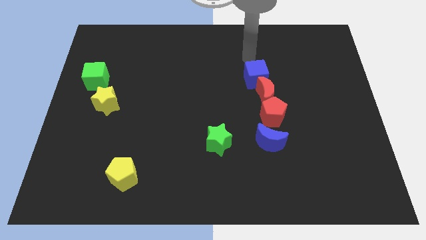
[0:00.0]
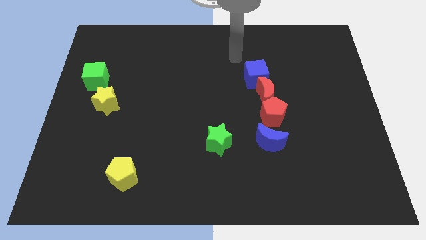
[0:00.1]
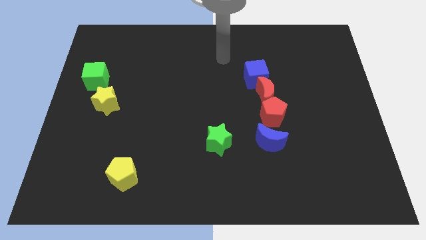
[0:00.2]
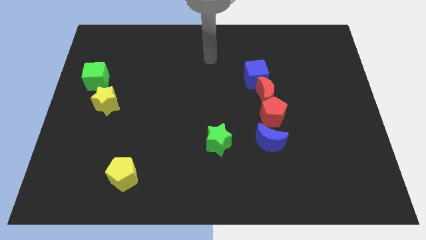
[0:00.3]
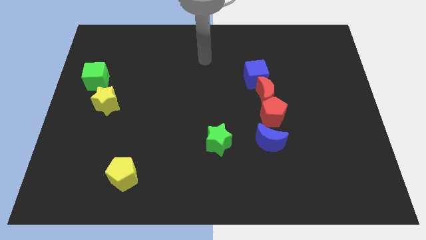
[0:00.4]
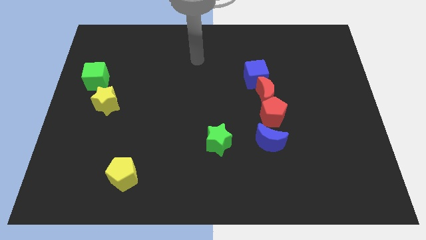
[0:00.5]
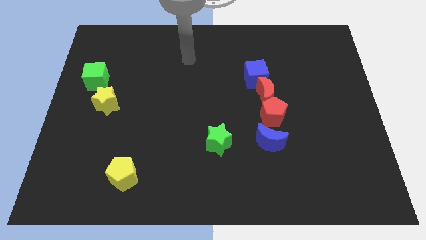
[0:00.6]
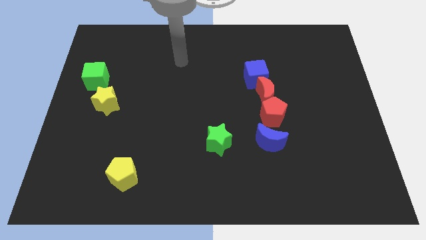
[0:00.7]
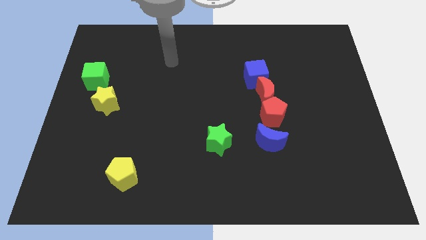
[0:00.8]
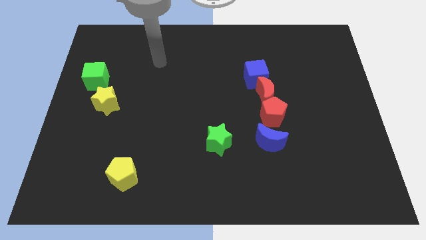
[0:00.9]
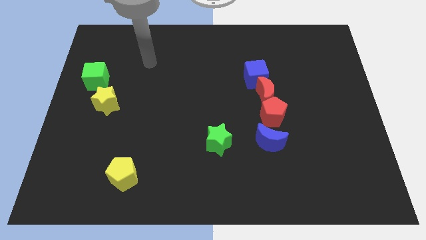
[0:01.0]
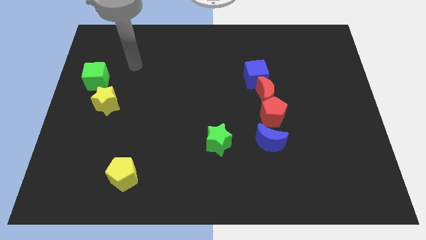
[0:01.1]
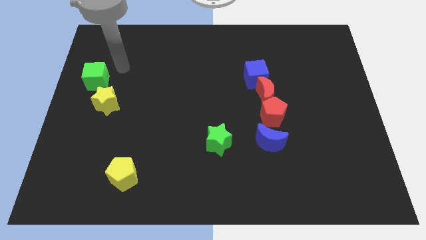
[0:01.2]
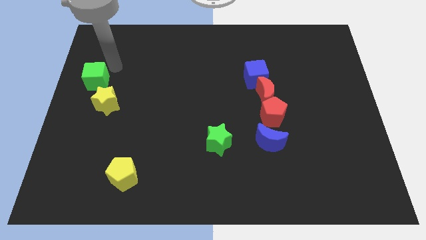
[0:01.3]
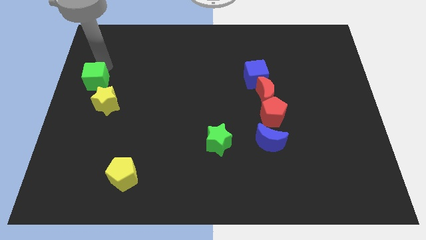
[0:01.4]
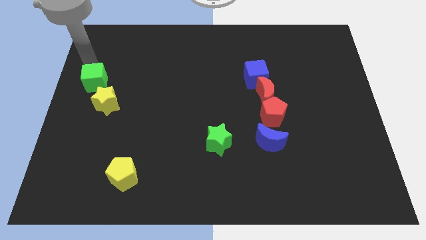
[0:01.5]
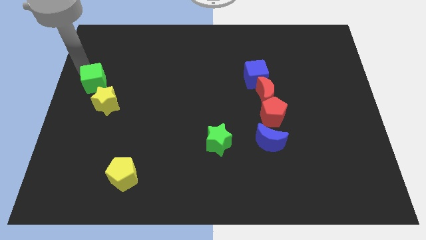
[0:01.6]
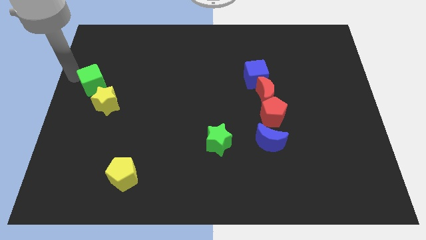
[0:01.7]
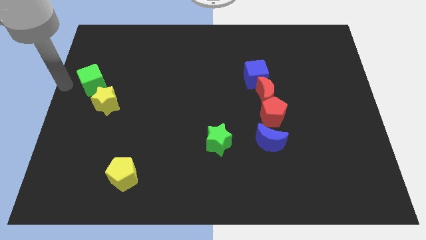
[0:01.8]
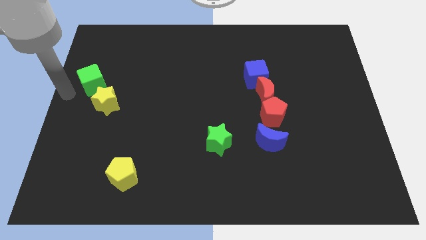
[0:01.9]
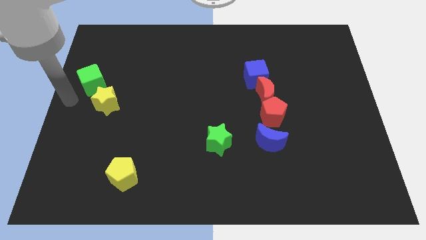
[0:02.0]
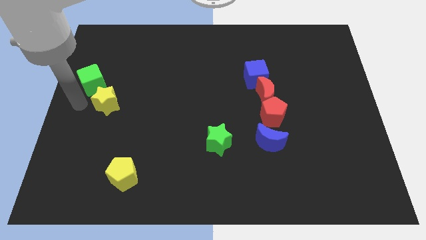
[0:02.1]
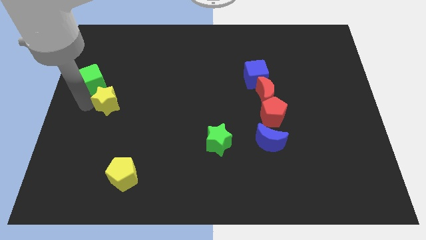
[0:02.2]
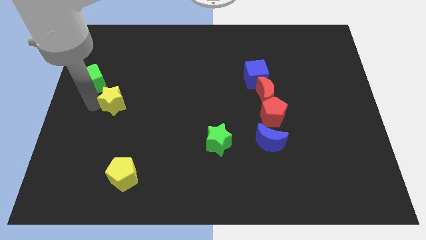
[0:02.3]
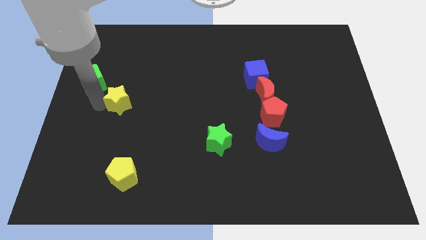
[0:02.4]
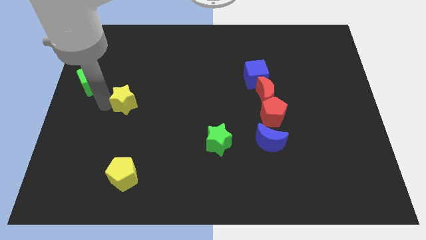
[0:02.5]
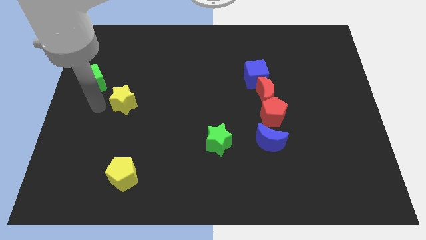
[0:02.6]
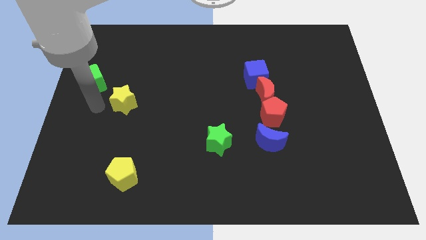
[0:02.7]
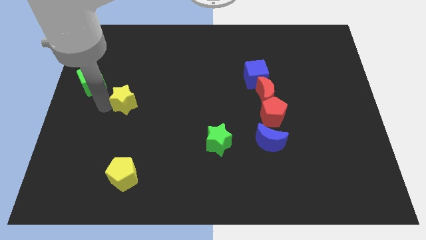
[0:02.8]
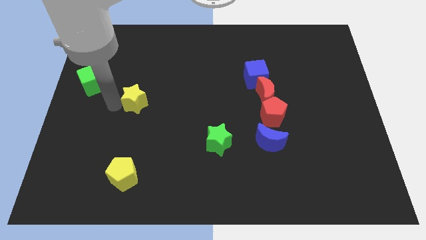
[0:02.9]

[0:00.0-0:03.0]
slightly slide the yellow star to the right

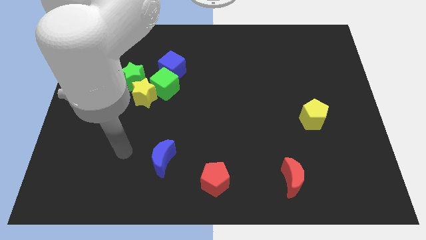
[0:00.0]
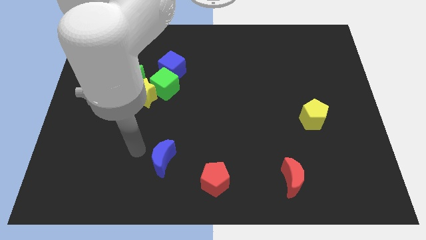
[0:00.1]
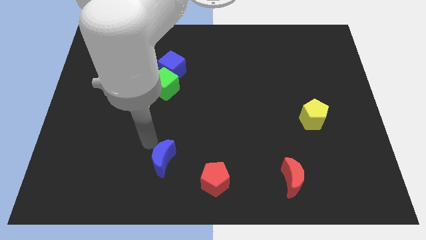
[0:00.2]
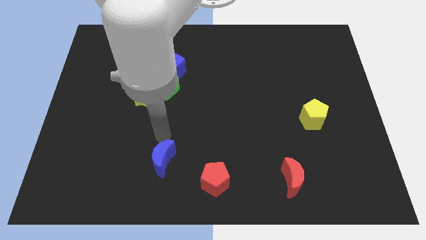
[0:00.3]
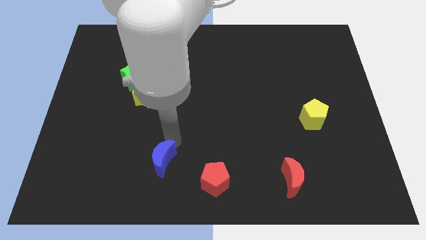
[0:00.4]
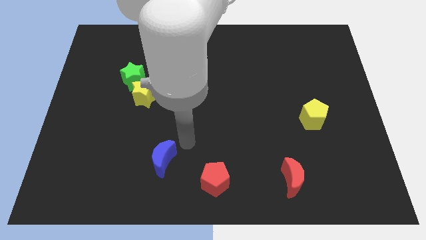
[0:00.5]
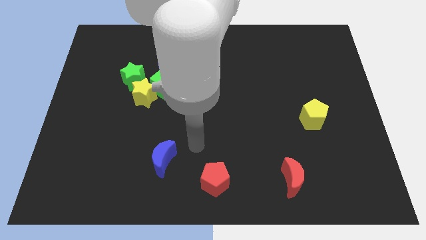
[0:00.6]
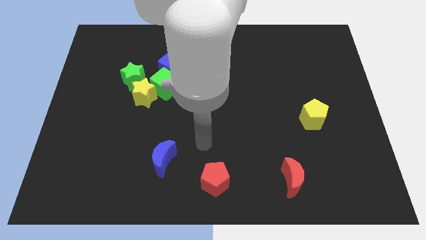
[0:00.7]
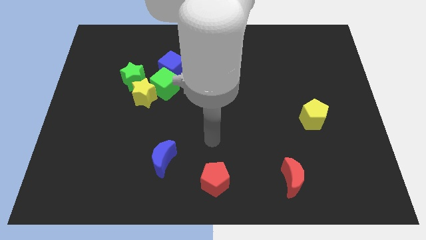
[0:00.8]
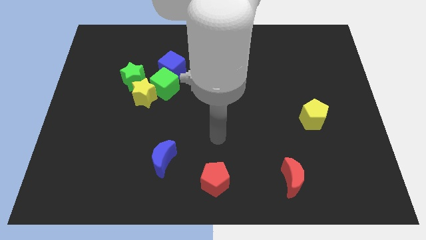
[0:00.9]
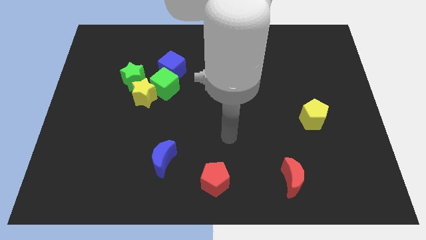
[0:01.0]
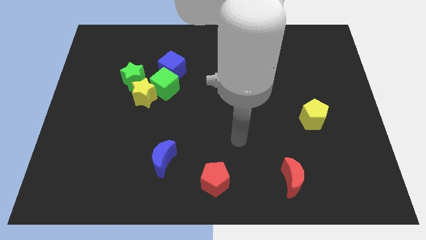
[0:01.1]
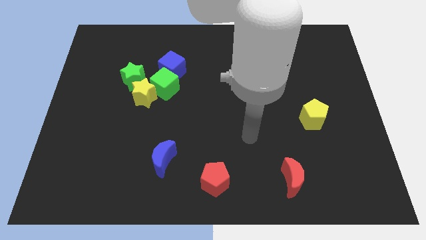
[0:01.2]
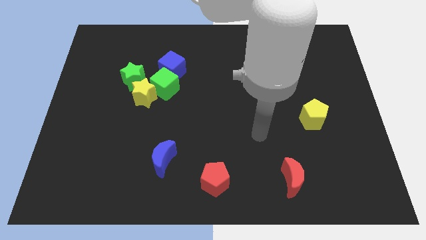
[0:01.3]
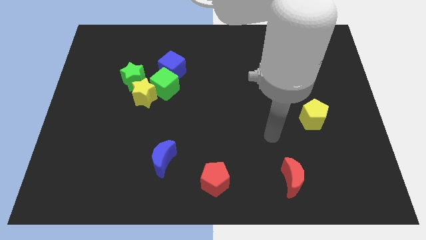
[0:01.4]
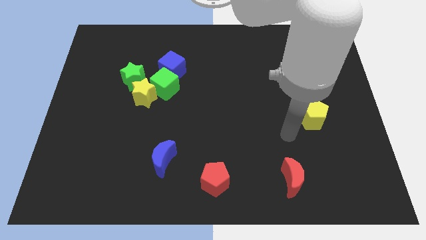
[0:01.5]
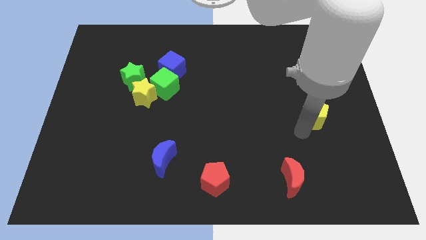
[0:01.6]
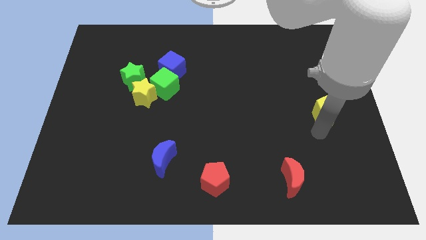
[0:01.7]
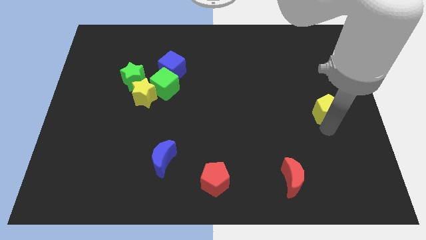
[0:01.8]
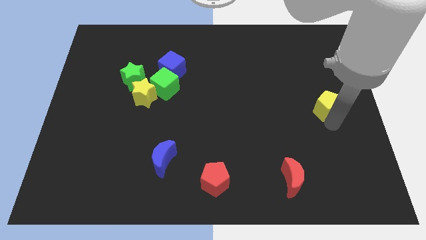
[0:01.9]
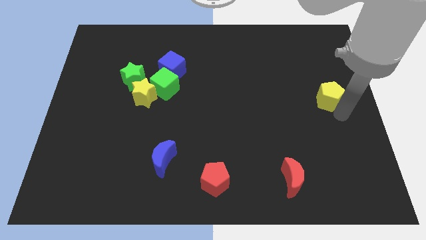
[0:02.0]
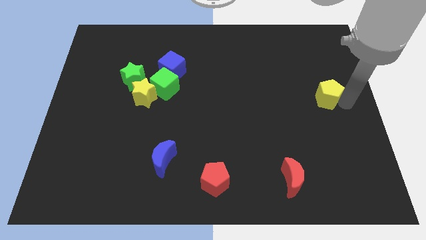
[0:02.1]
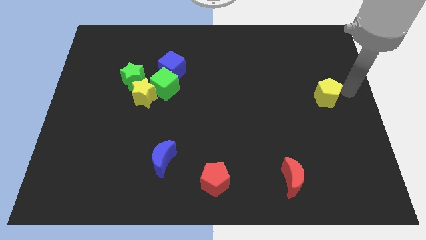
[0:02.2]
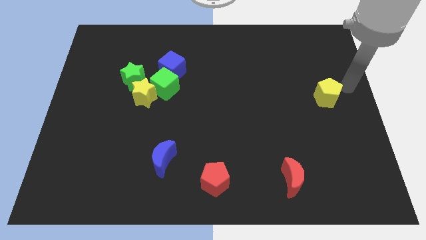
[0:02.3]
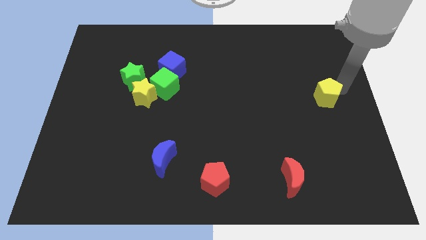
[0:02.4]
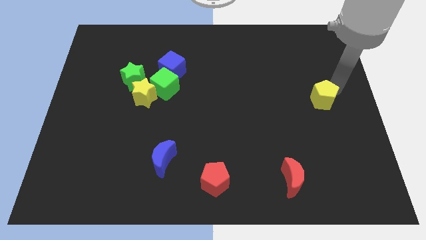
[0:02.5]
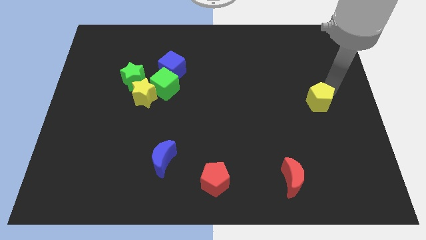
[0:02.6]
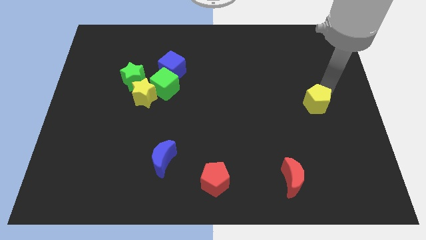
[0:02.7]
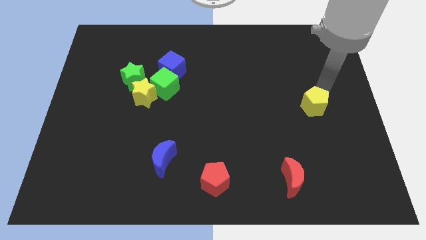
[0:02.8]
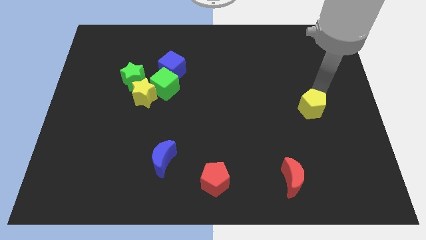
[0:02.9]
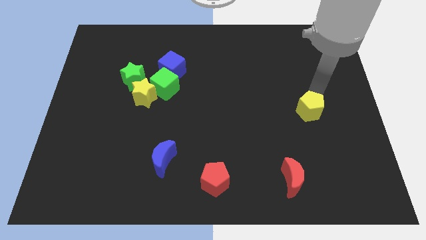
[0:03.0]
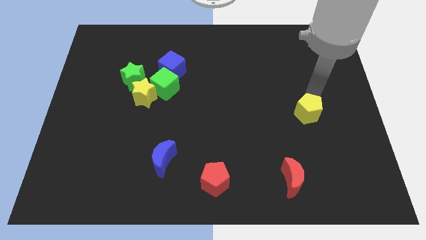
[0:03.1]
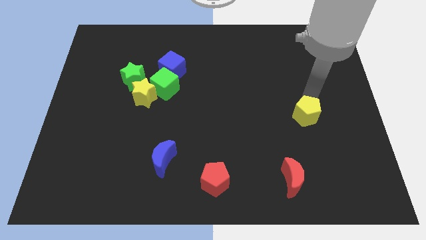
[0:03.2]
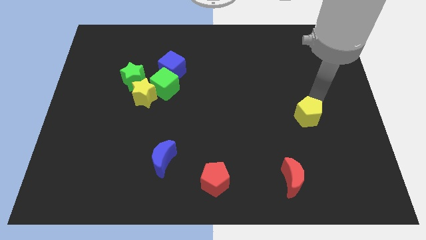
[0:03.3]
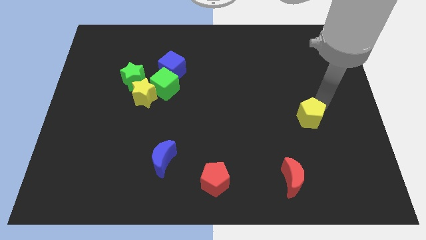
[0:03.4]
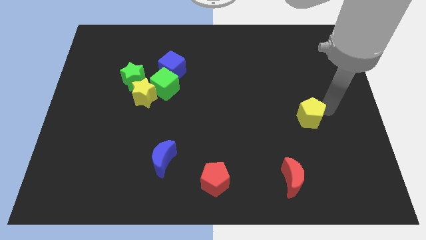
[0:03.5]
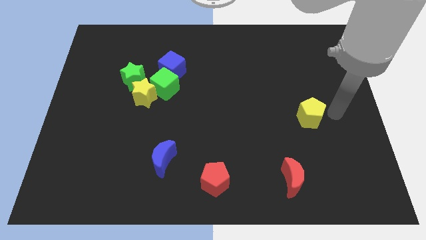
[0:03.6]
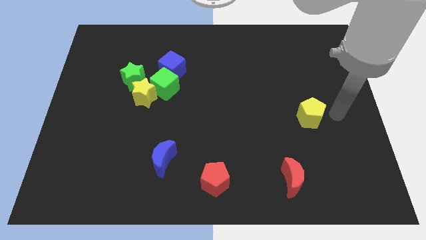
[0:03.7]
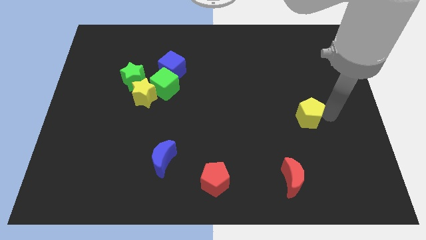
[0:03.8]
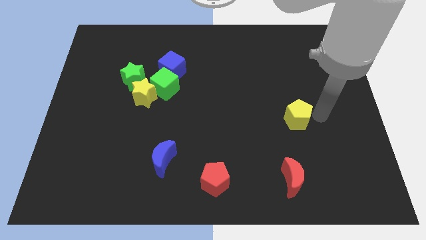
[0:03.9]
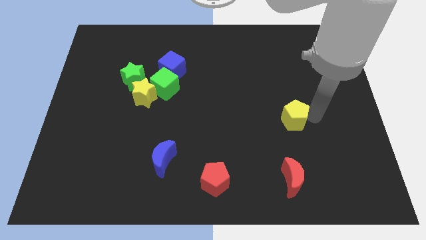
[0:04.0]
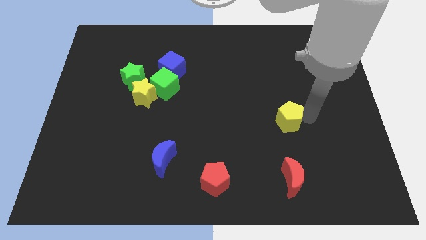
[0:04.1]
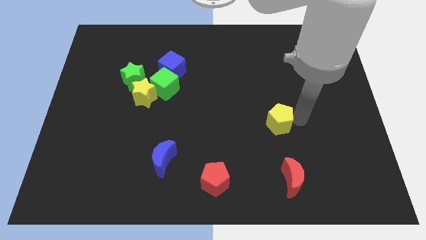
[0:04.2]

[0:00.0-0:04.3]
slide the yellow pentagon a bit to the left

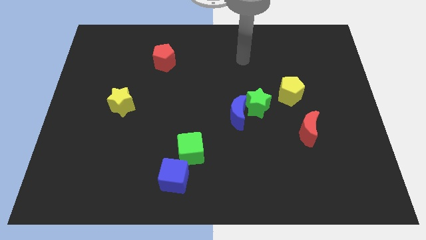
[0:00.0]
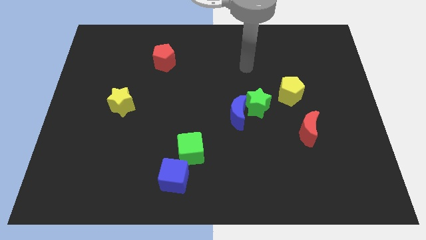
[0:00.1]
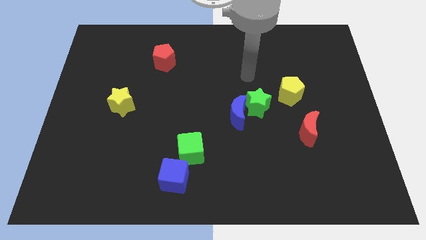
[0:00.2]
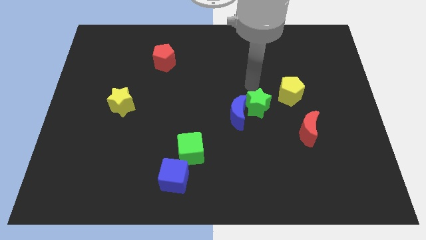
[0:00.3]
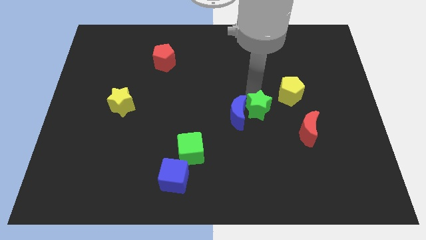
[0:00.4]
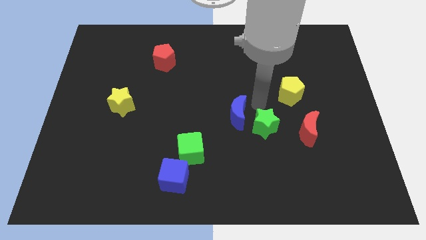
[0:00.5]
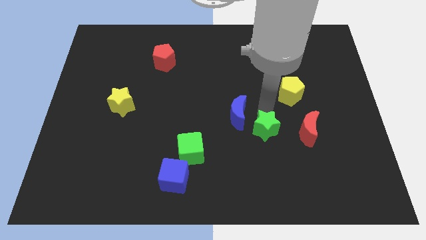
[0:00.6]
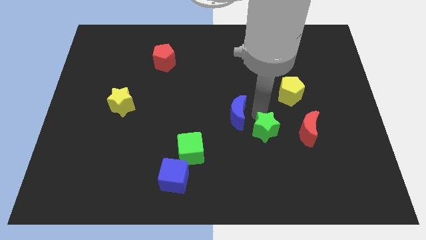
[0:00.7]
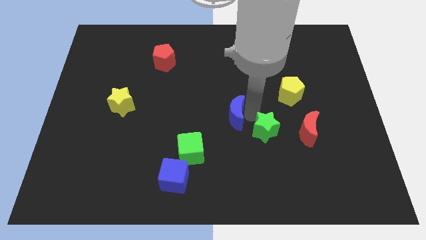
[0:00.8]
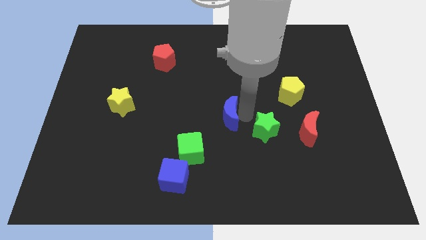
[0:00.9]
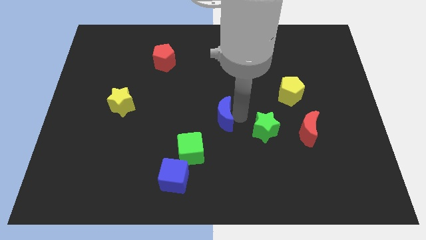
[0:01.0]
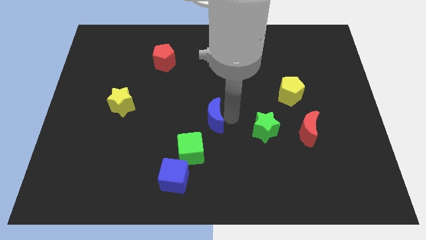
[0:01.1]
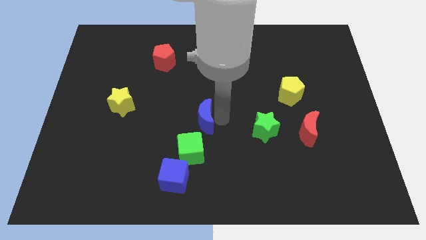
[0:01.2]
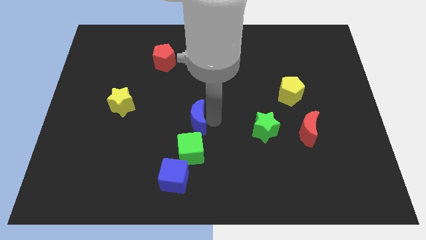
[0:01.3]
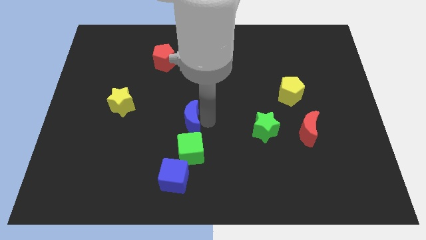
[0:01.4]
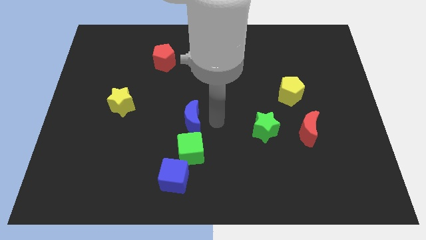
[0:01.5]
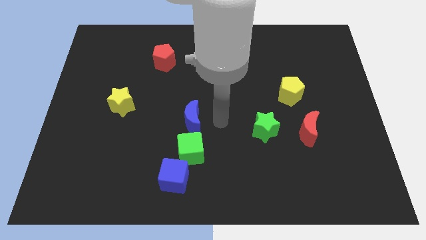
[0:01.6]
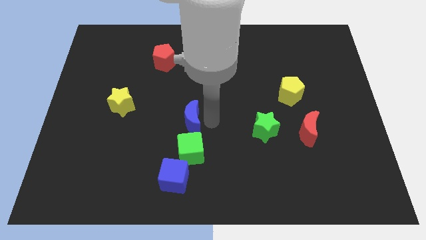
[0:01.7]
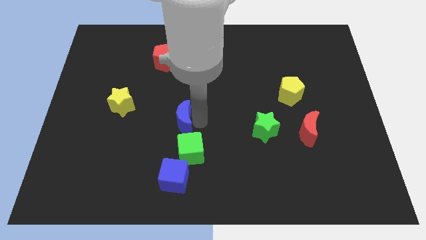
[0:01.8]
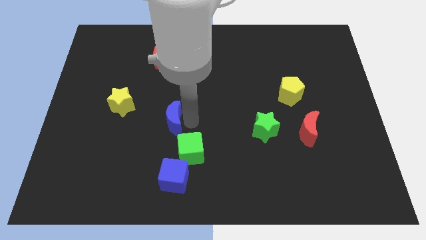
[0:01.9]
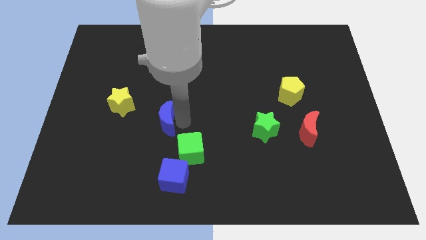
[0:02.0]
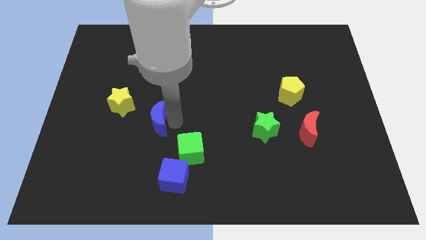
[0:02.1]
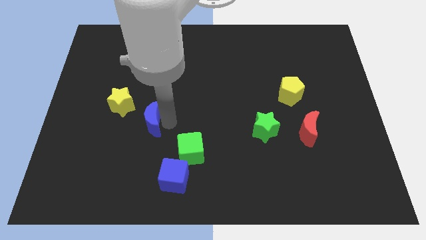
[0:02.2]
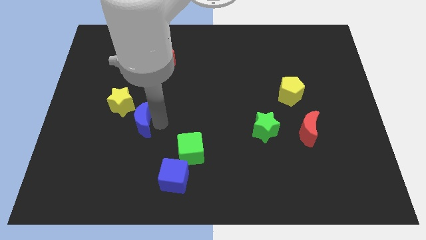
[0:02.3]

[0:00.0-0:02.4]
move the blue moon to the left
